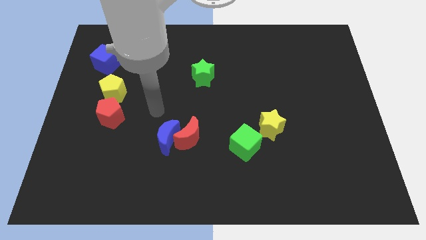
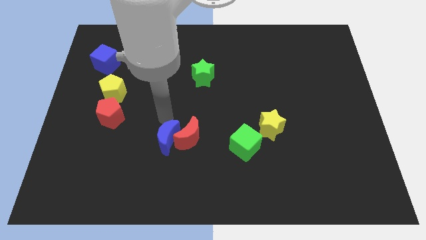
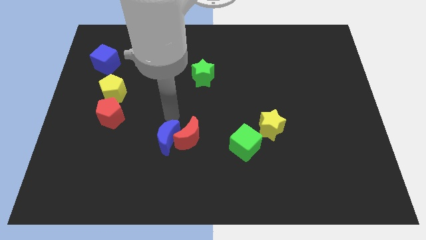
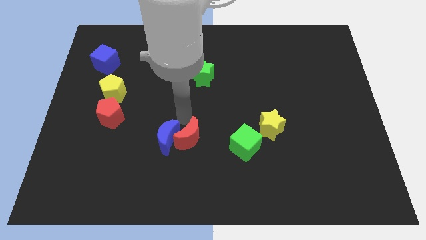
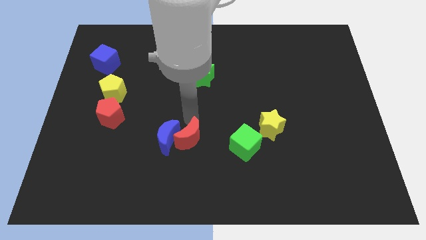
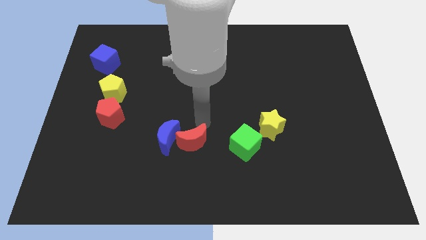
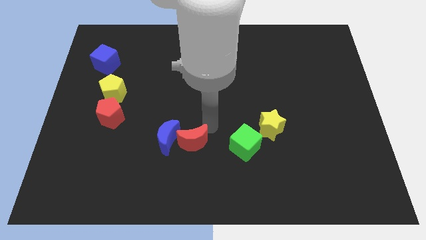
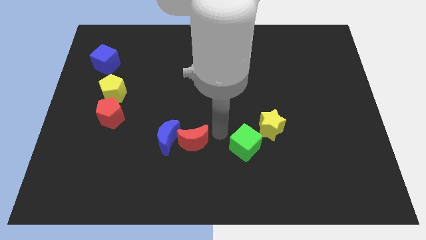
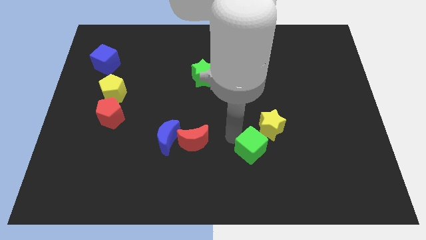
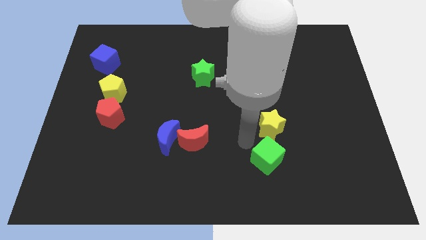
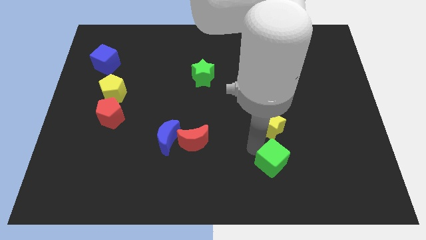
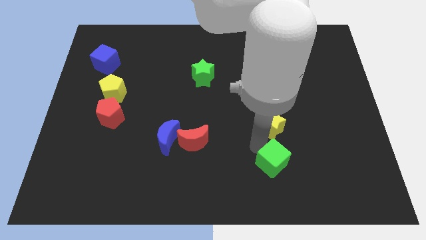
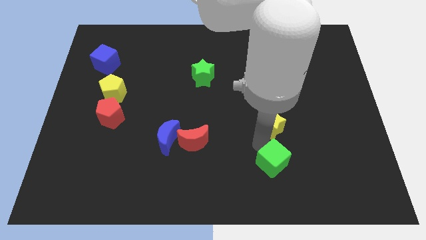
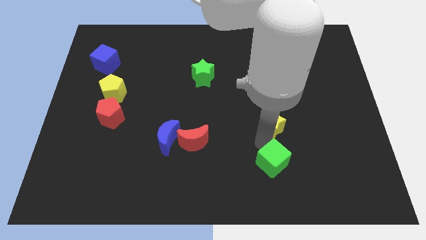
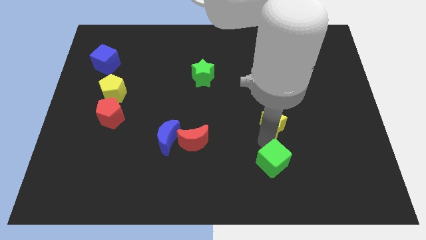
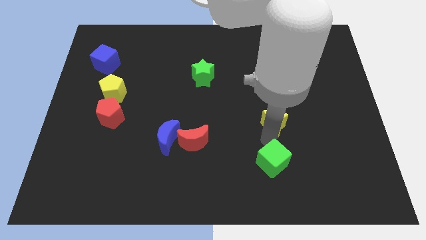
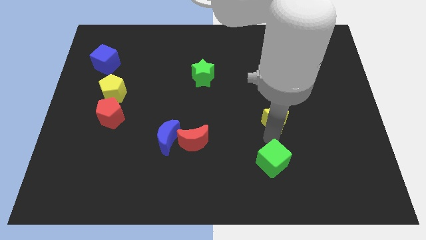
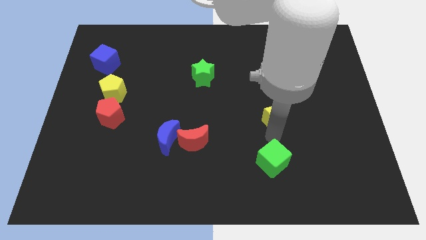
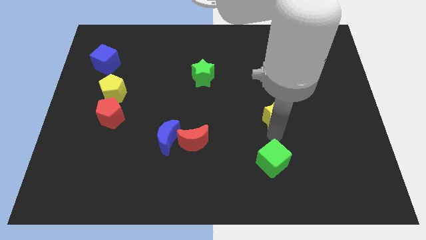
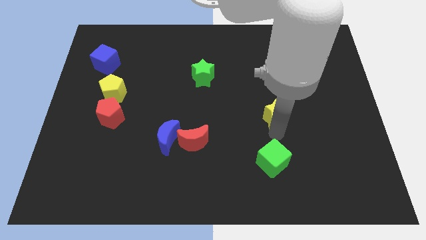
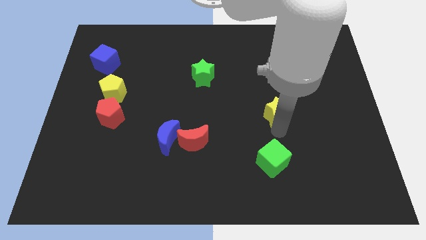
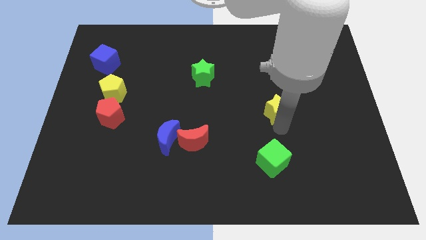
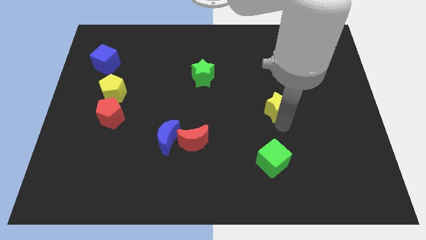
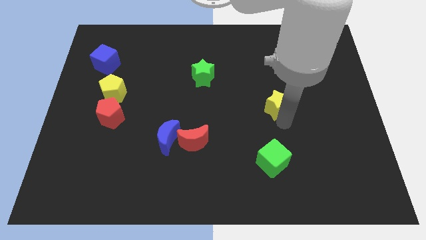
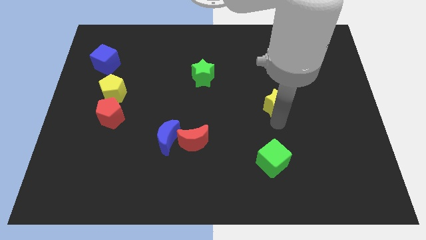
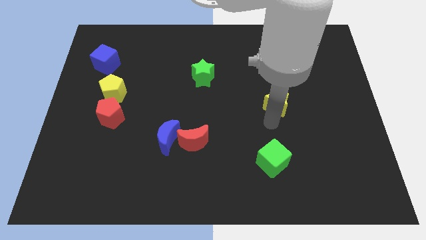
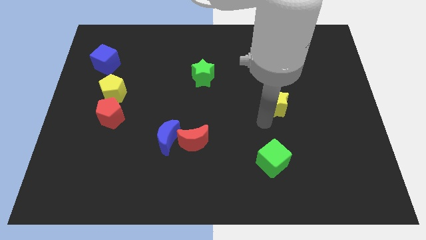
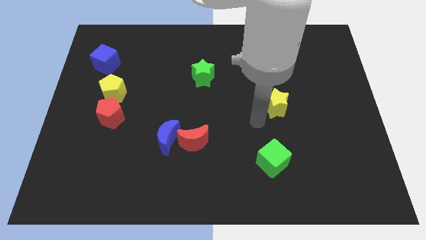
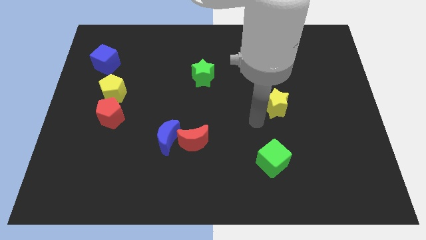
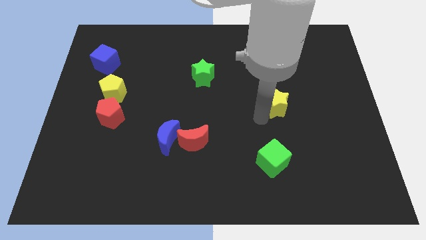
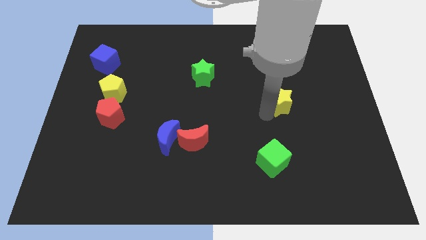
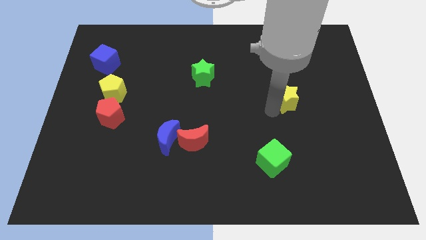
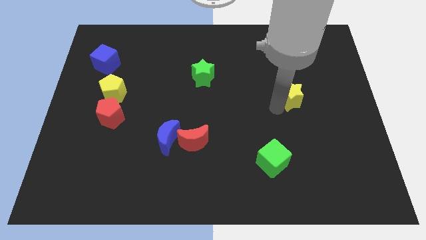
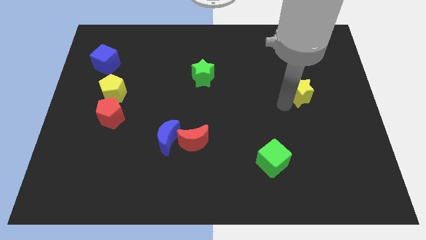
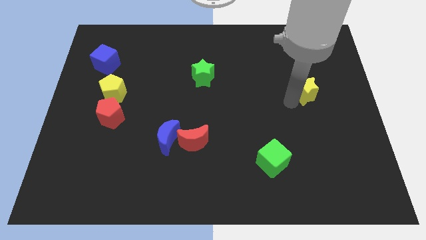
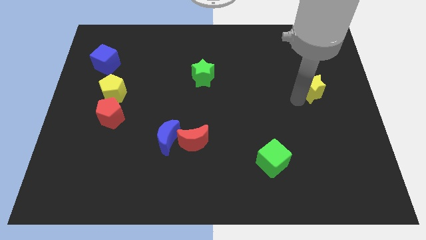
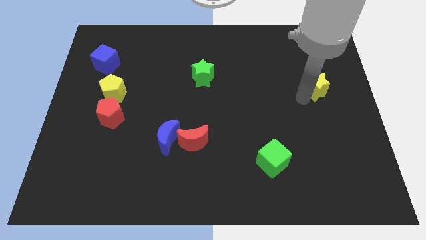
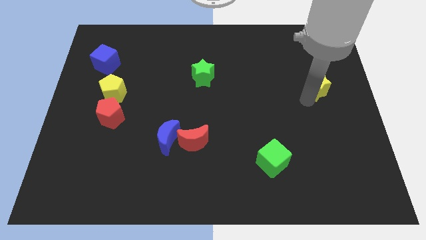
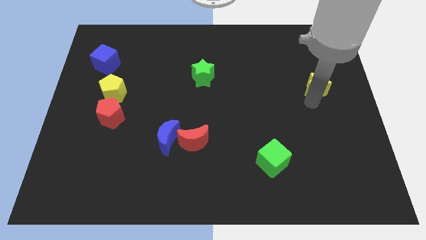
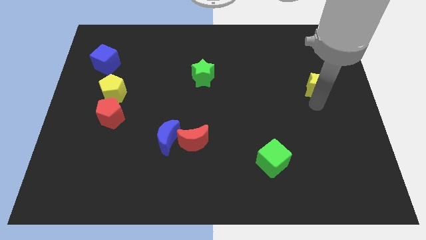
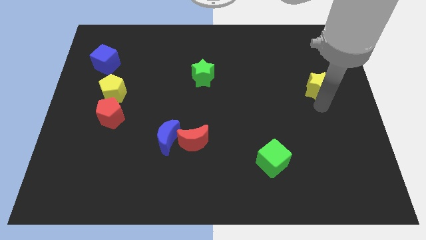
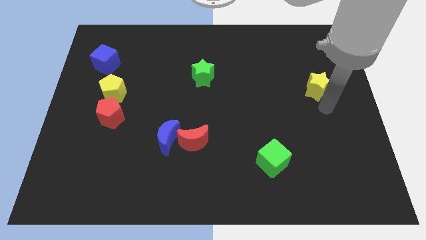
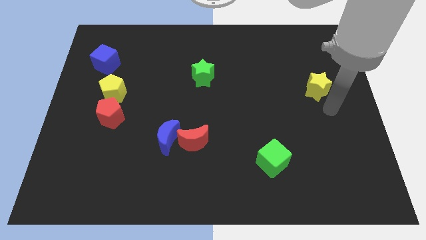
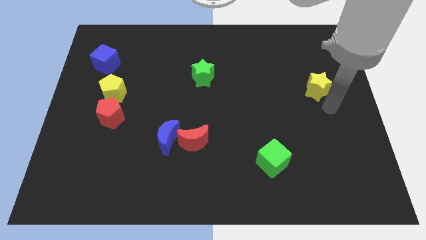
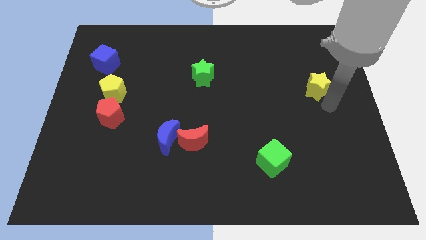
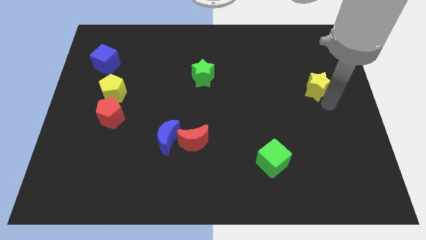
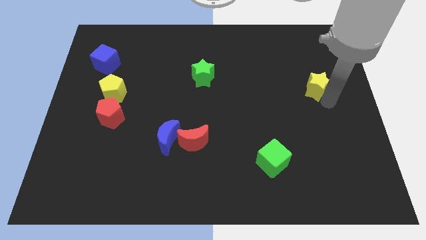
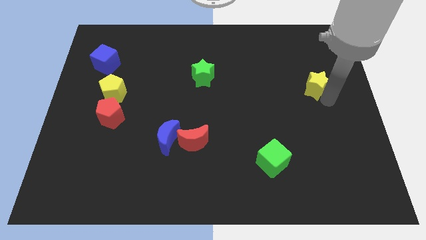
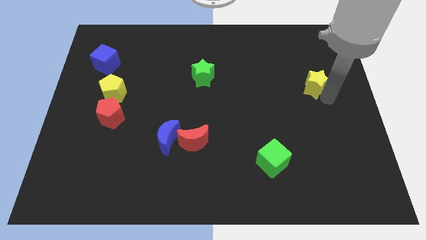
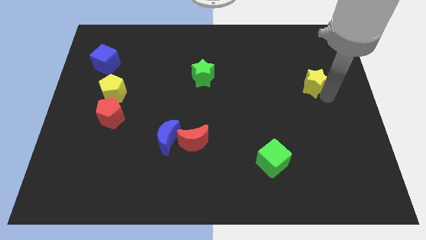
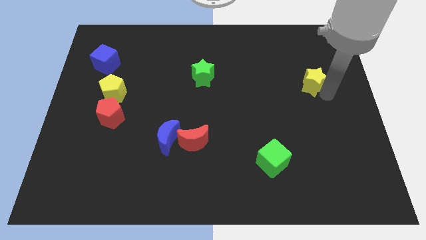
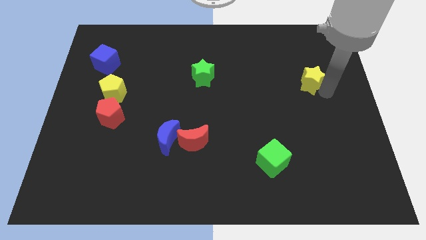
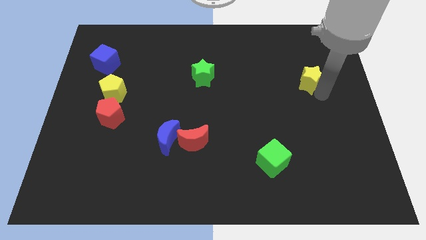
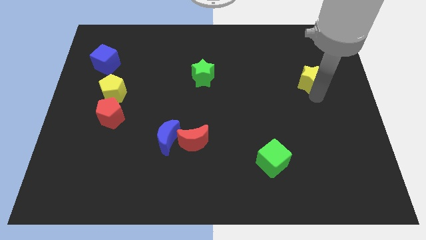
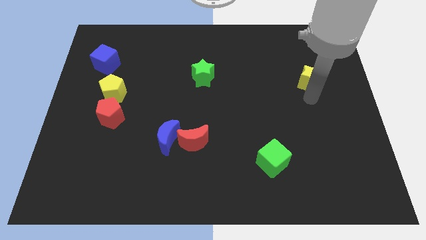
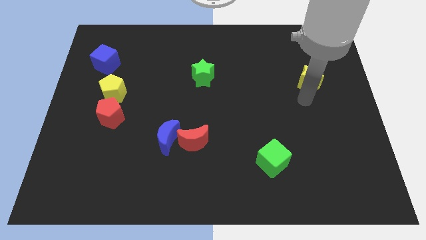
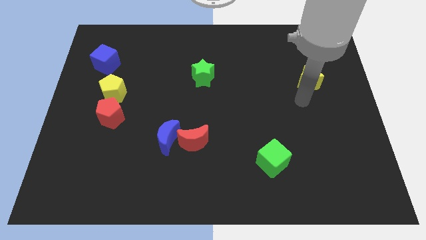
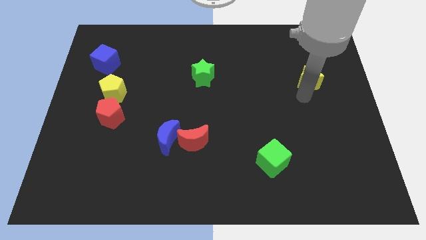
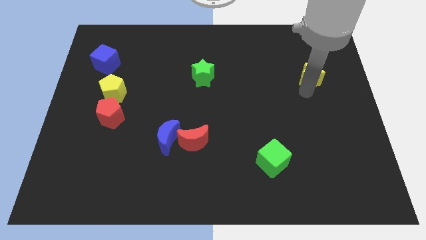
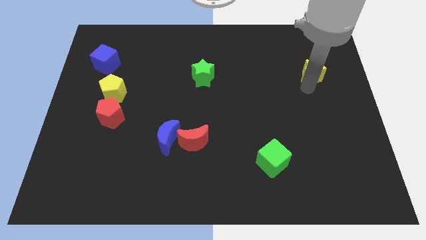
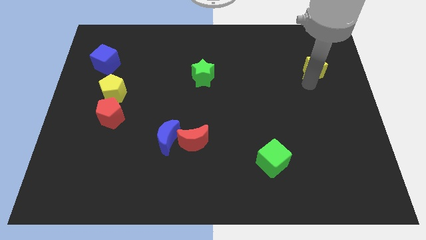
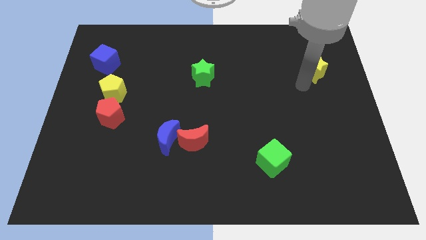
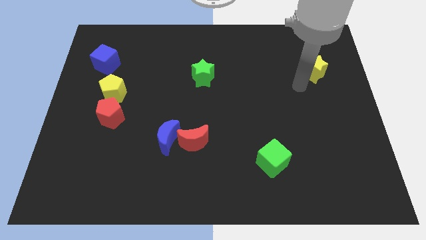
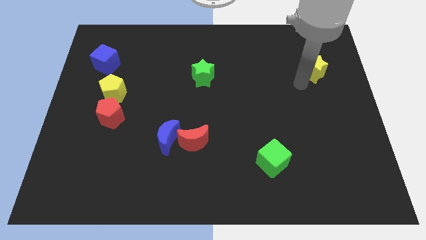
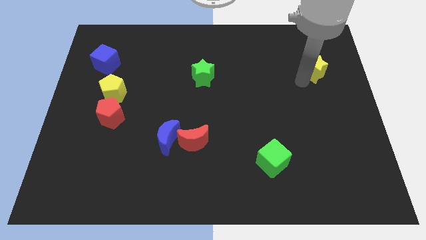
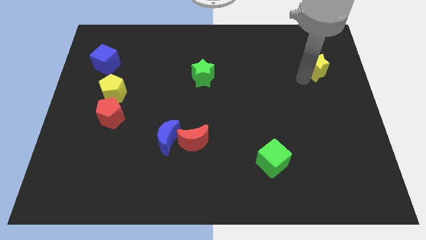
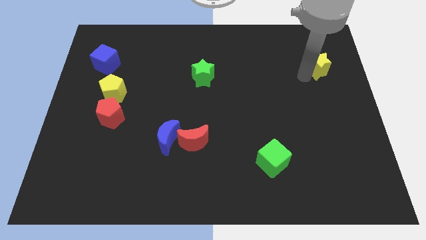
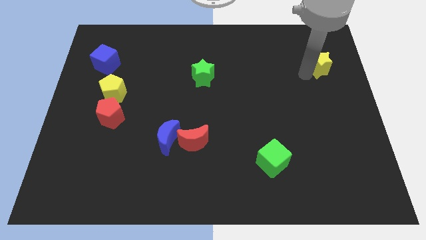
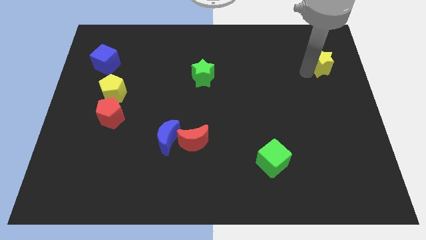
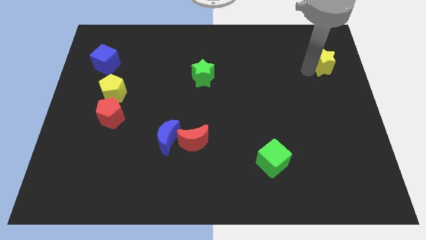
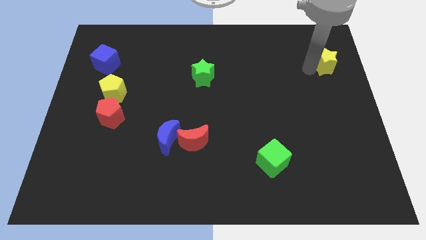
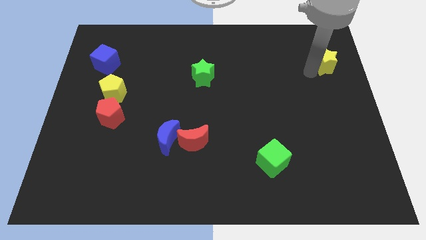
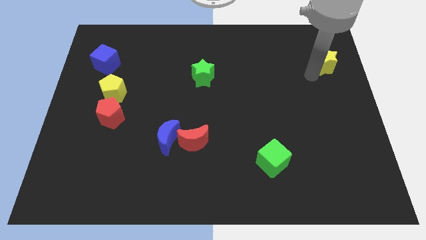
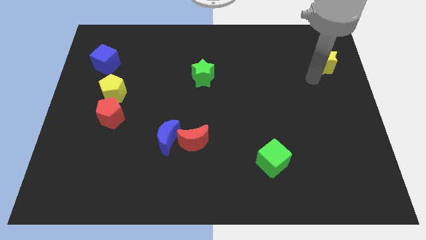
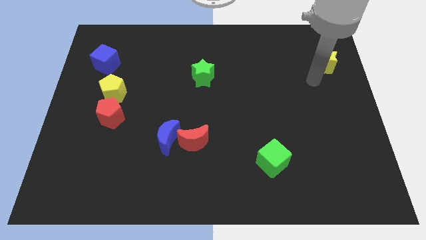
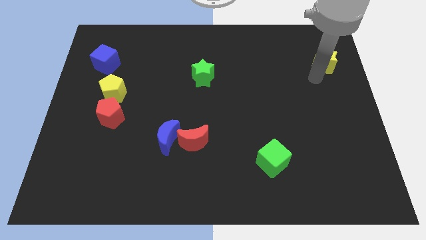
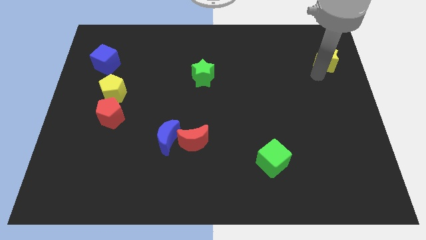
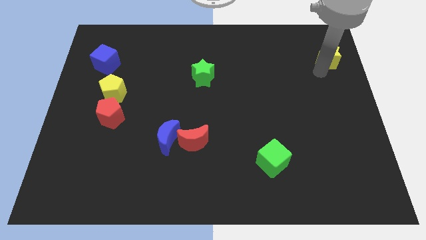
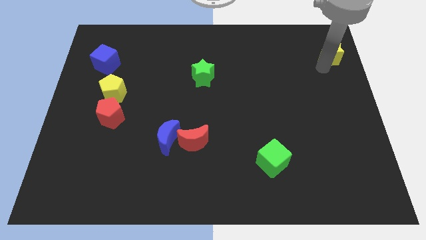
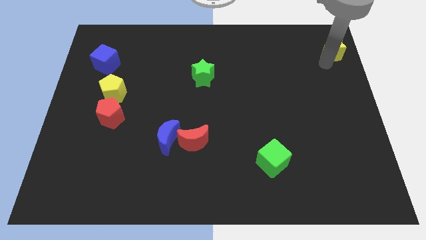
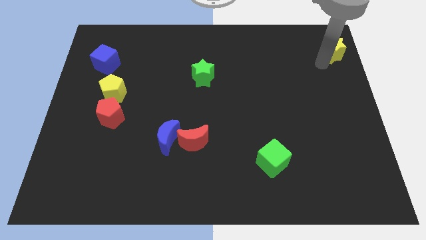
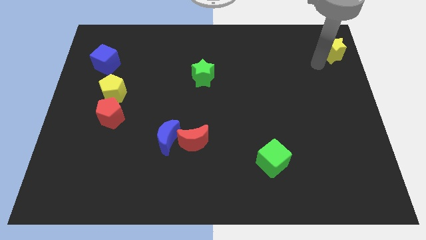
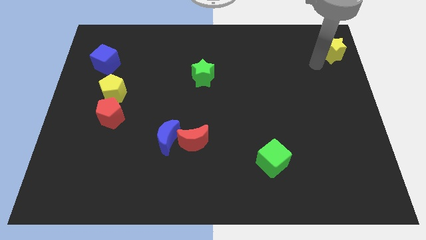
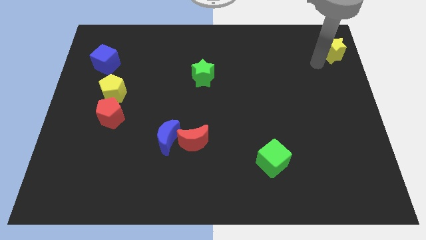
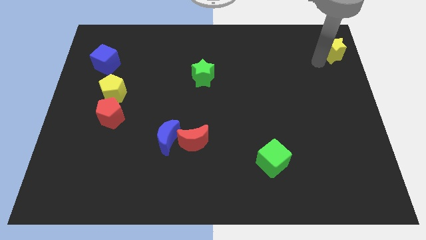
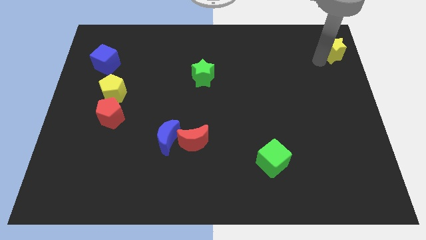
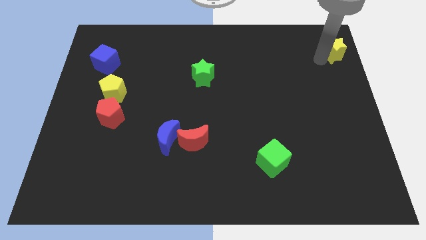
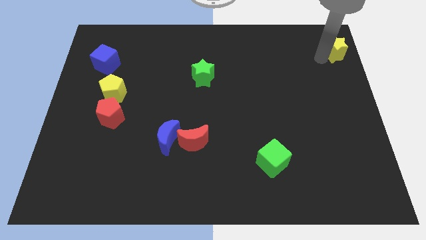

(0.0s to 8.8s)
slide the yellow star to the top right of the board
